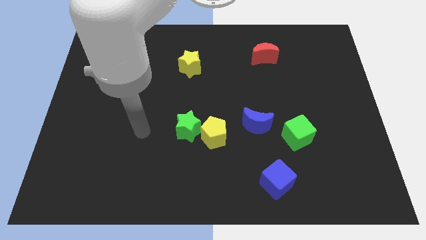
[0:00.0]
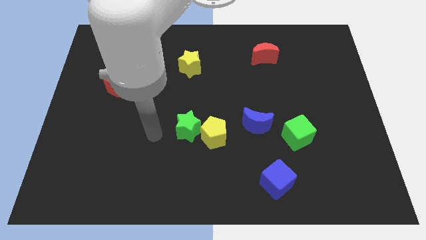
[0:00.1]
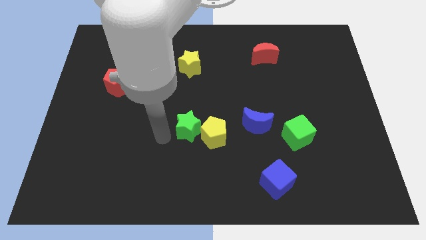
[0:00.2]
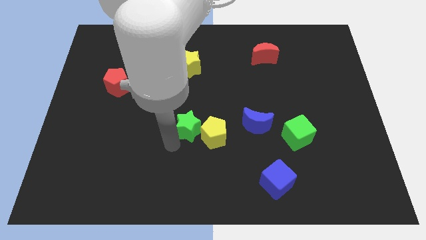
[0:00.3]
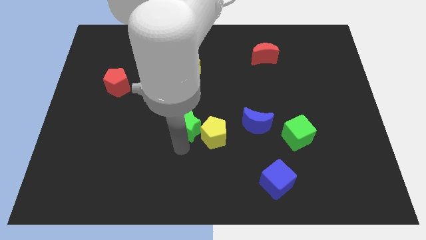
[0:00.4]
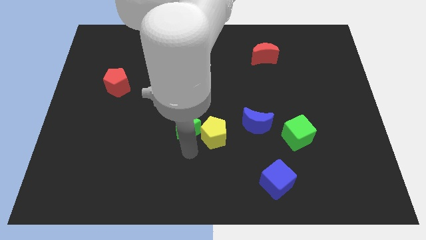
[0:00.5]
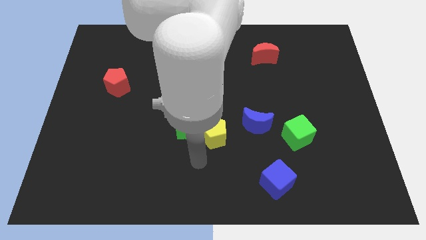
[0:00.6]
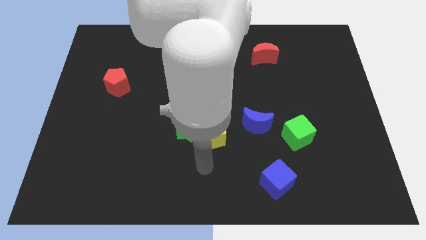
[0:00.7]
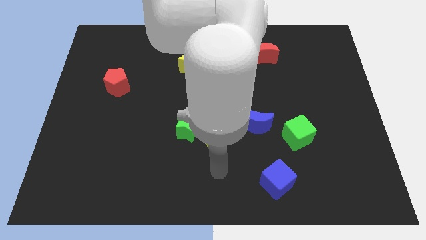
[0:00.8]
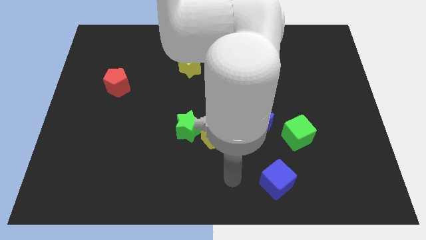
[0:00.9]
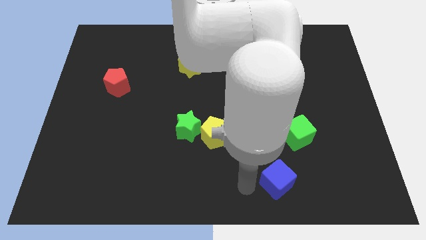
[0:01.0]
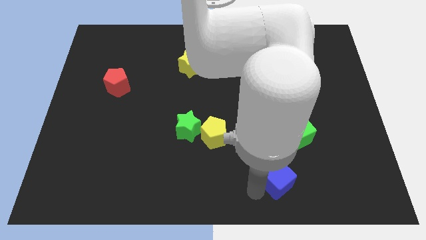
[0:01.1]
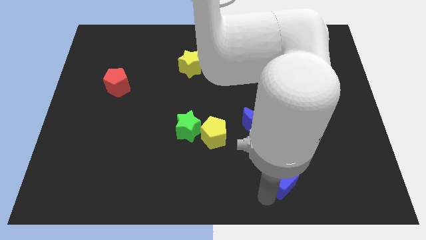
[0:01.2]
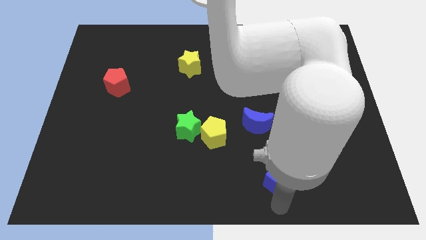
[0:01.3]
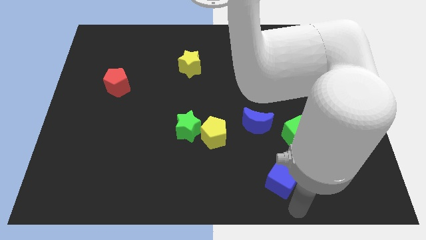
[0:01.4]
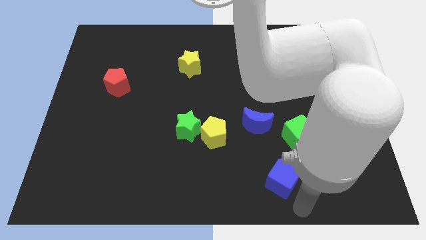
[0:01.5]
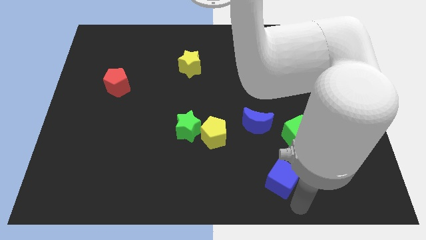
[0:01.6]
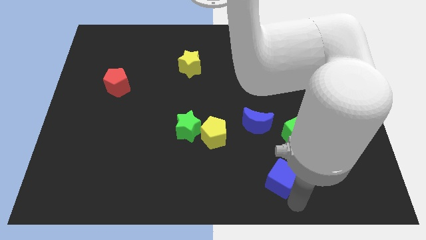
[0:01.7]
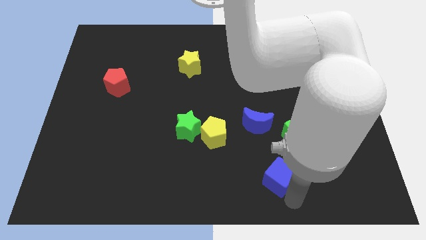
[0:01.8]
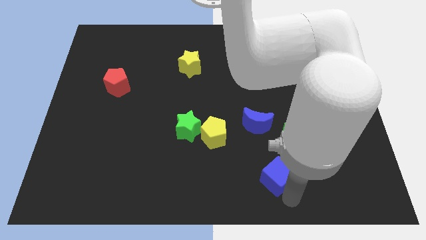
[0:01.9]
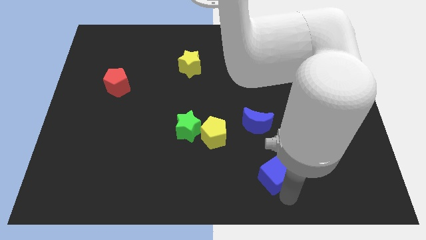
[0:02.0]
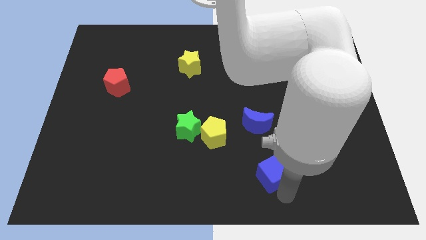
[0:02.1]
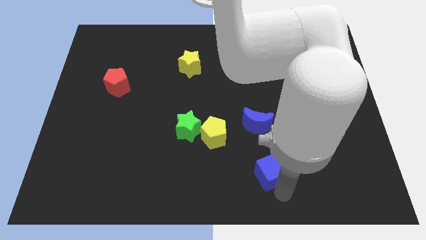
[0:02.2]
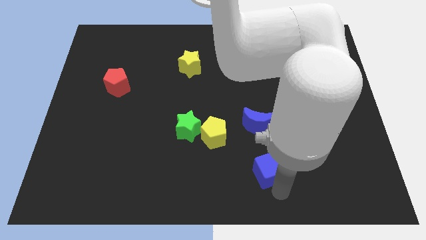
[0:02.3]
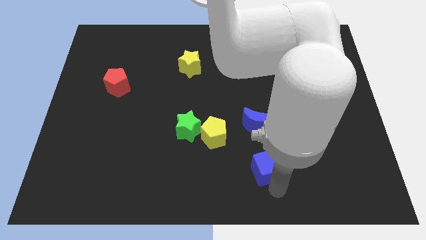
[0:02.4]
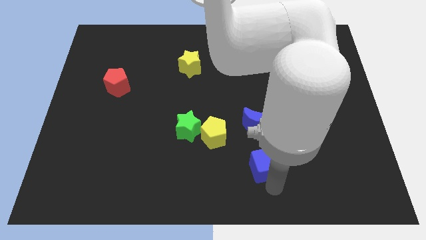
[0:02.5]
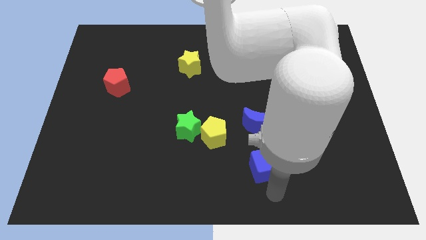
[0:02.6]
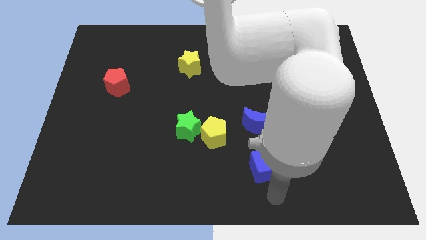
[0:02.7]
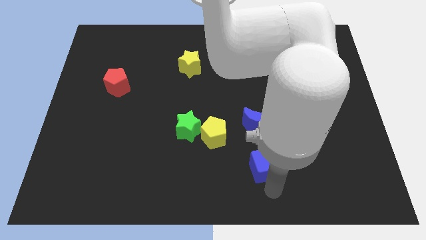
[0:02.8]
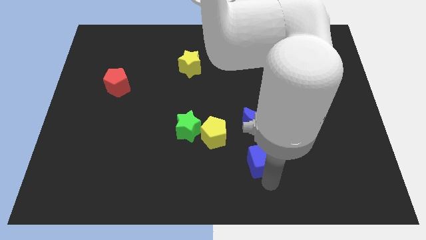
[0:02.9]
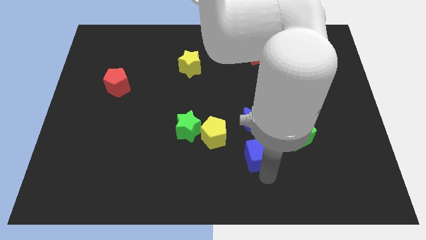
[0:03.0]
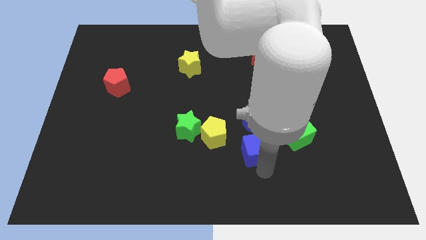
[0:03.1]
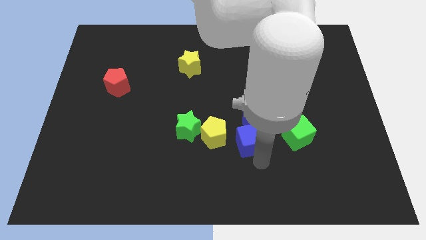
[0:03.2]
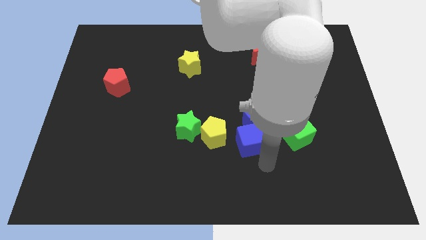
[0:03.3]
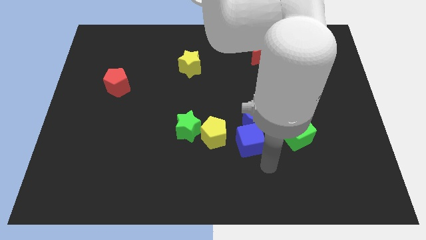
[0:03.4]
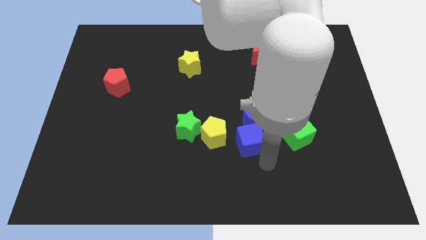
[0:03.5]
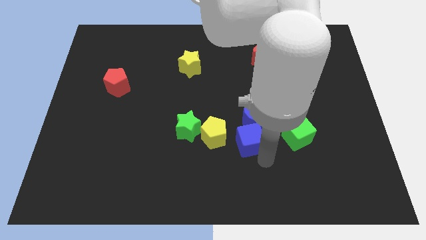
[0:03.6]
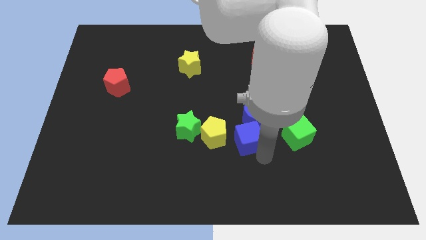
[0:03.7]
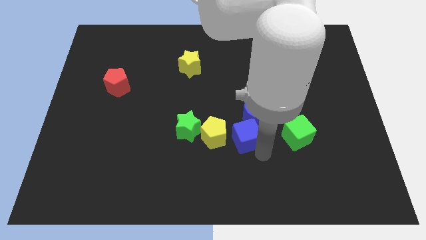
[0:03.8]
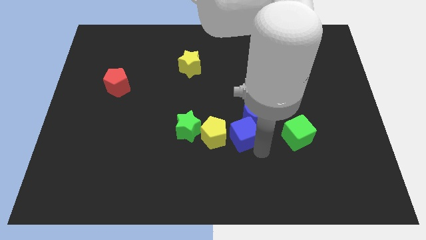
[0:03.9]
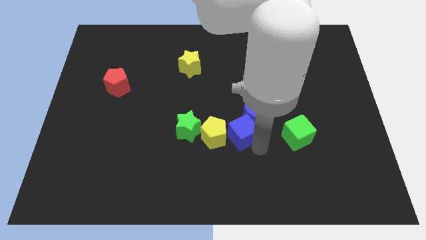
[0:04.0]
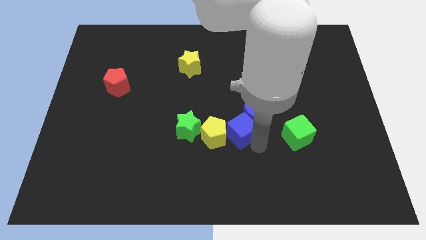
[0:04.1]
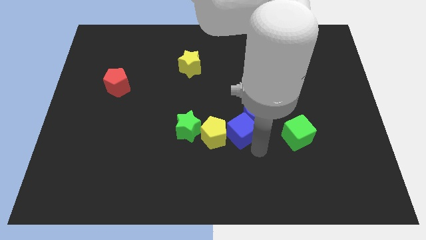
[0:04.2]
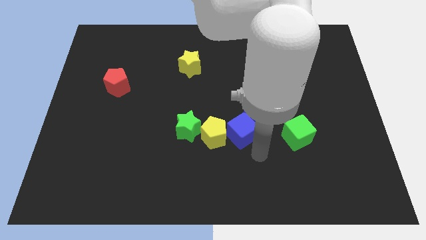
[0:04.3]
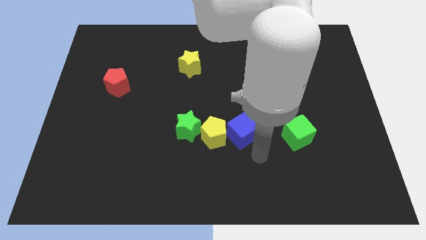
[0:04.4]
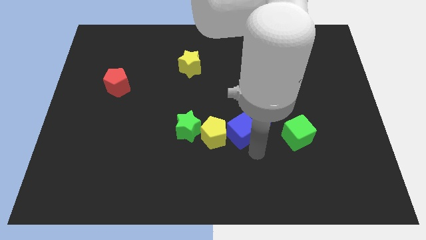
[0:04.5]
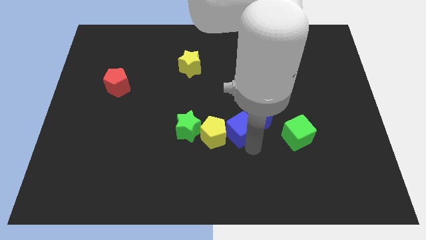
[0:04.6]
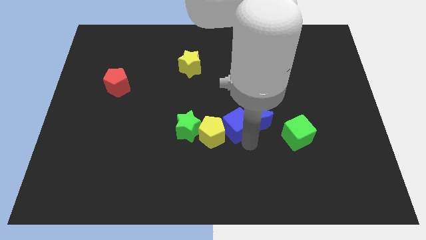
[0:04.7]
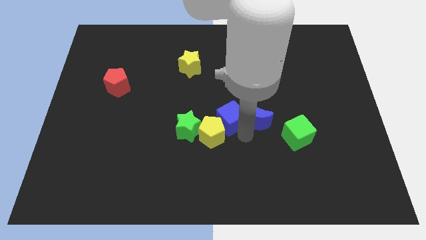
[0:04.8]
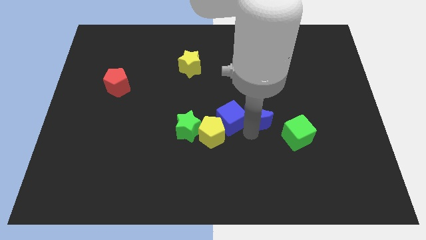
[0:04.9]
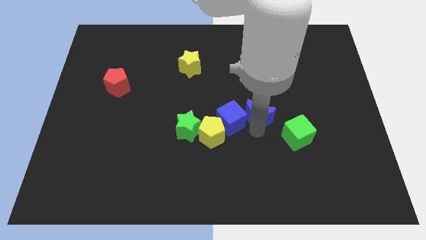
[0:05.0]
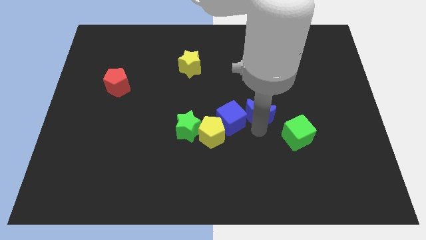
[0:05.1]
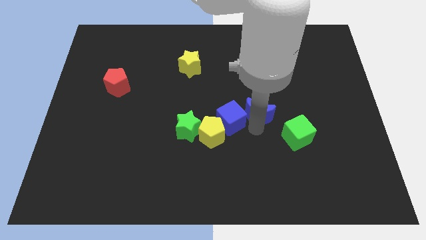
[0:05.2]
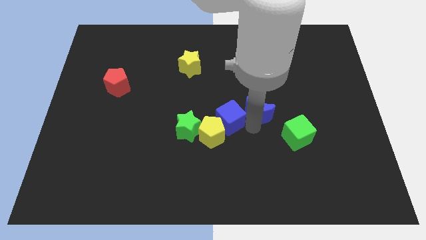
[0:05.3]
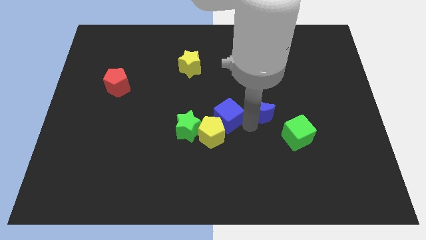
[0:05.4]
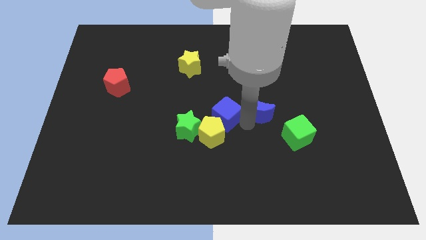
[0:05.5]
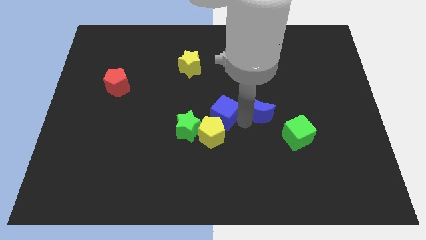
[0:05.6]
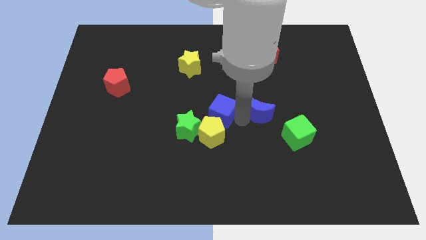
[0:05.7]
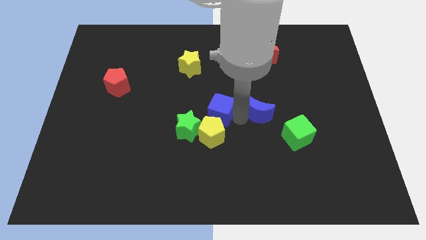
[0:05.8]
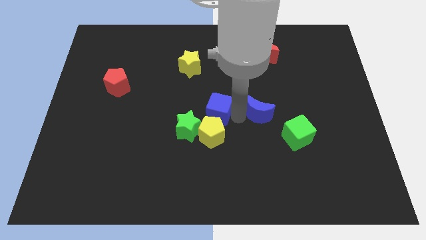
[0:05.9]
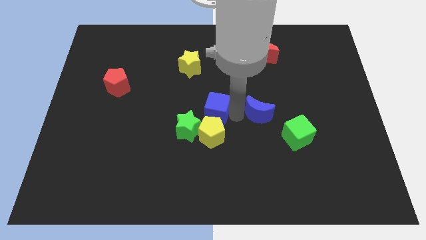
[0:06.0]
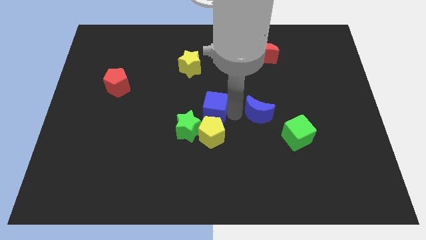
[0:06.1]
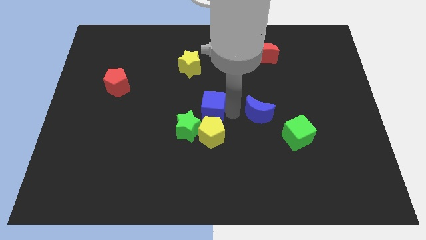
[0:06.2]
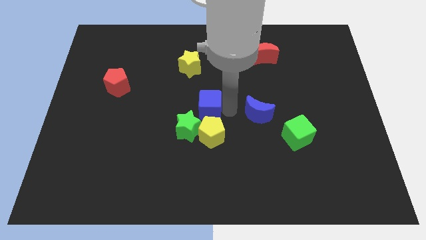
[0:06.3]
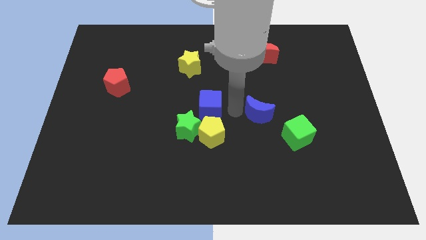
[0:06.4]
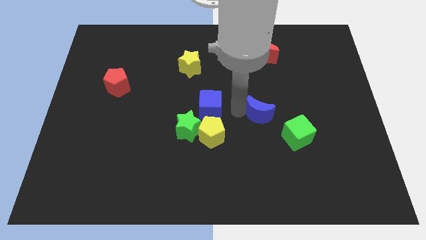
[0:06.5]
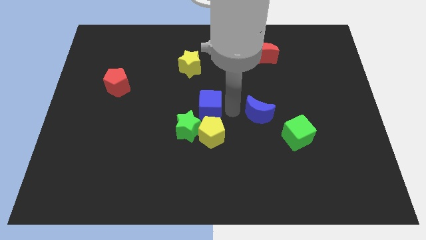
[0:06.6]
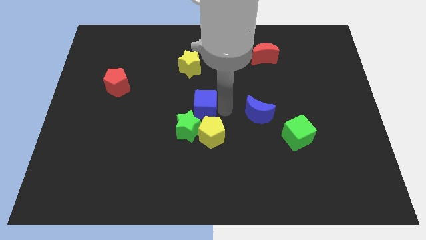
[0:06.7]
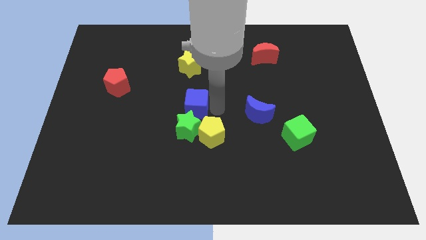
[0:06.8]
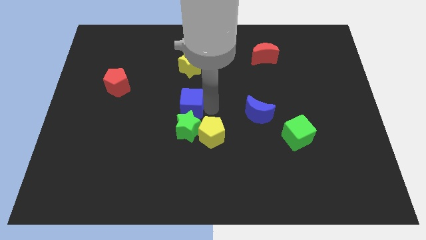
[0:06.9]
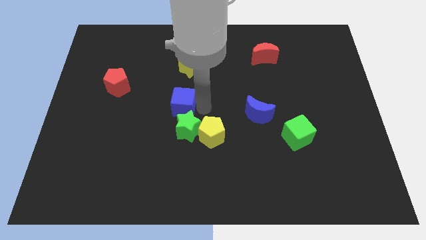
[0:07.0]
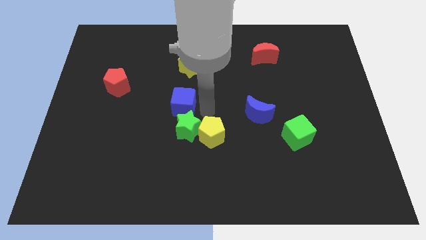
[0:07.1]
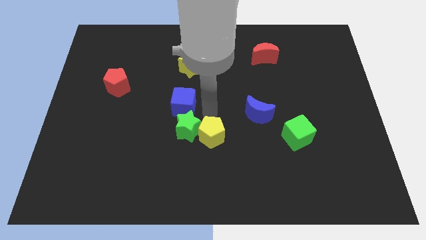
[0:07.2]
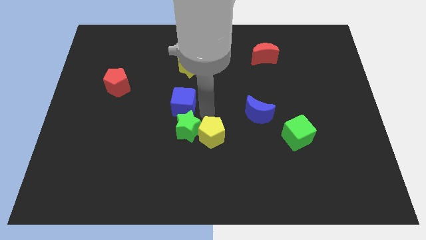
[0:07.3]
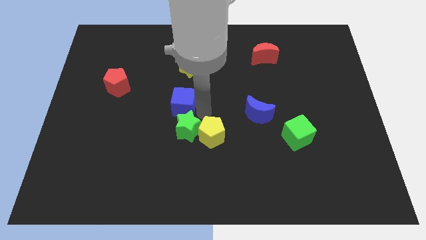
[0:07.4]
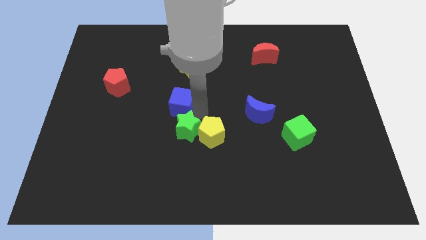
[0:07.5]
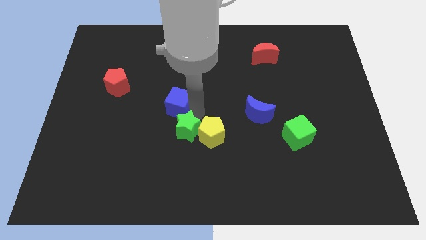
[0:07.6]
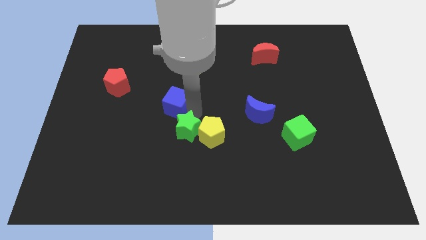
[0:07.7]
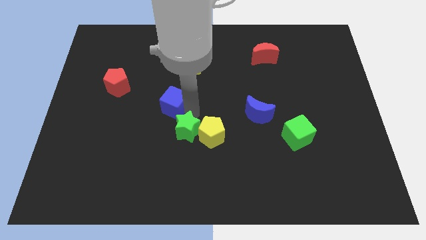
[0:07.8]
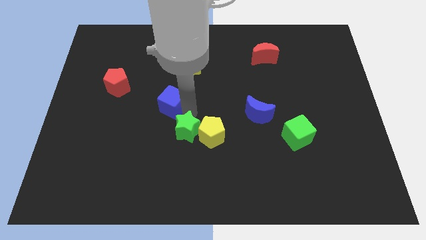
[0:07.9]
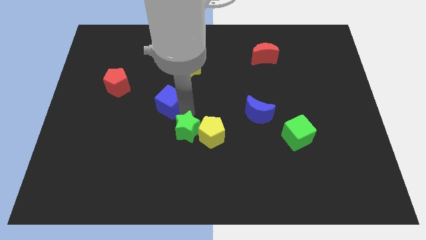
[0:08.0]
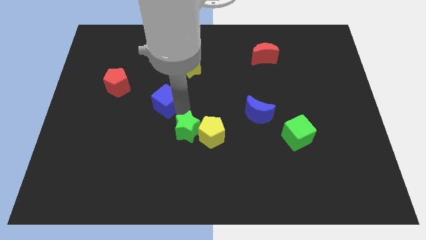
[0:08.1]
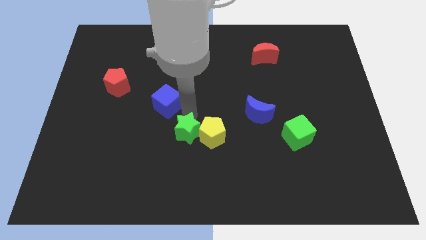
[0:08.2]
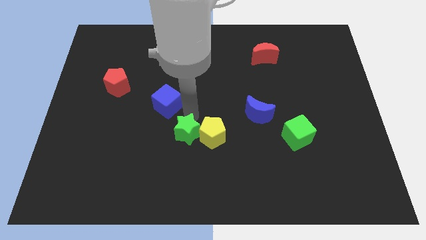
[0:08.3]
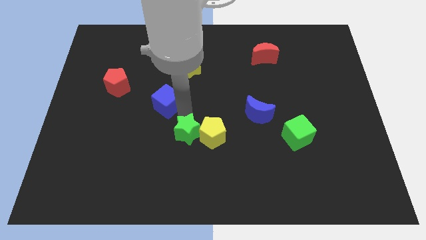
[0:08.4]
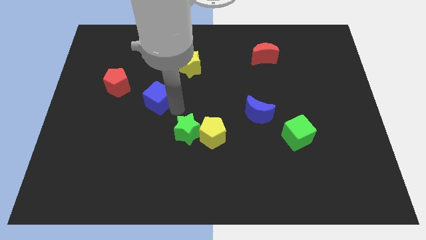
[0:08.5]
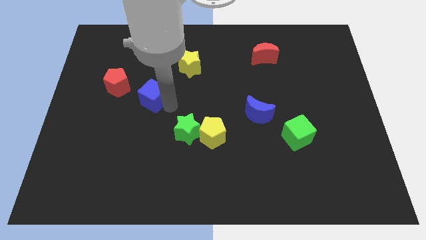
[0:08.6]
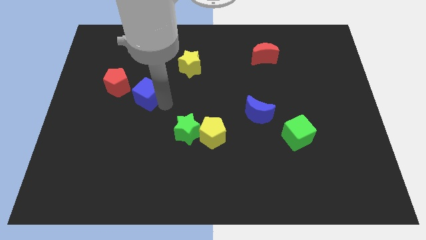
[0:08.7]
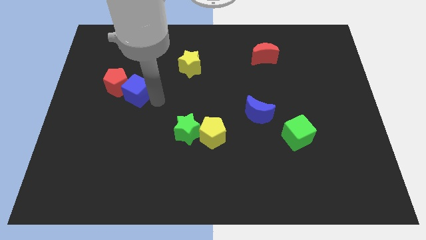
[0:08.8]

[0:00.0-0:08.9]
slide the blue cube to the red pentagon
